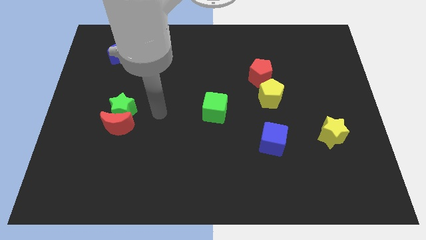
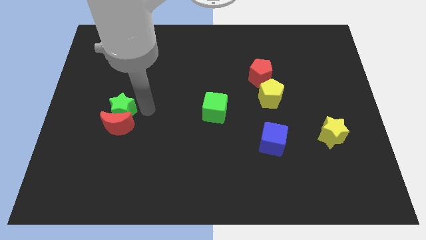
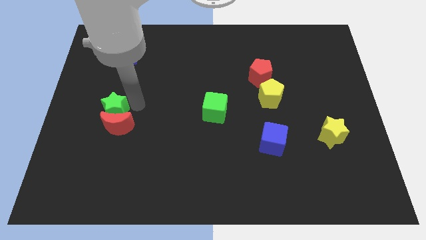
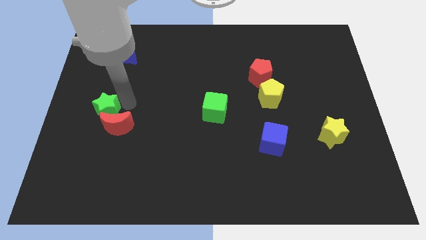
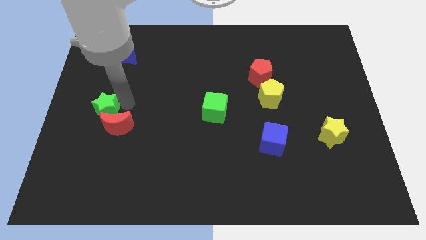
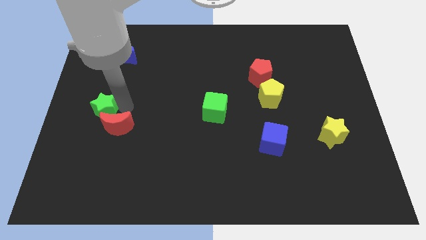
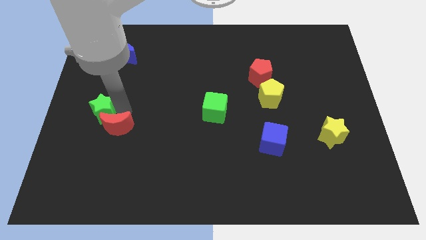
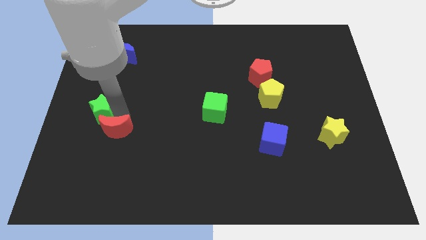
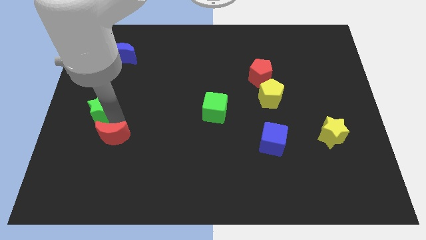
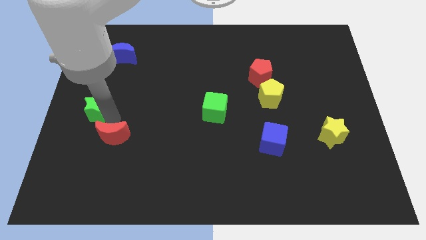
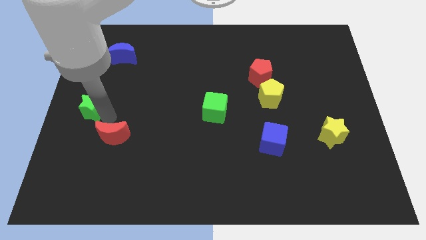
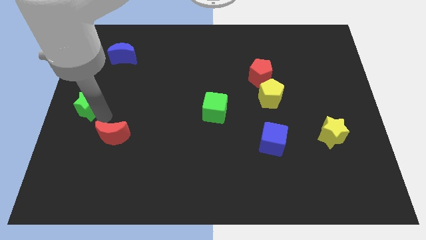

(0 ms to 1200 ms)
move the red moon away from the green star

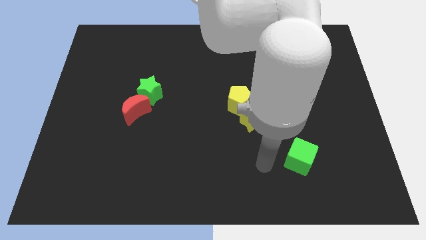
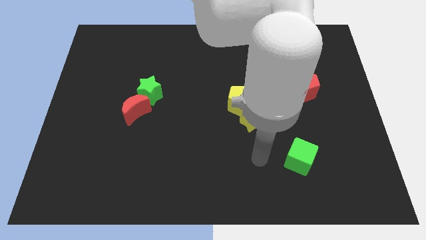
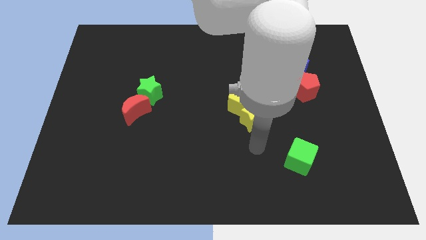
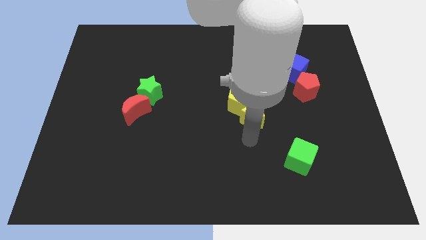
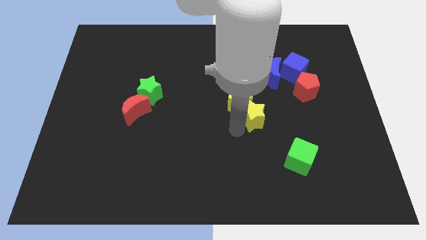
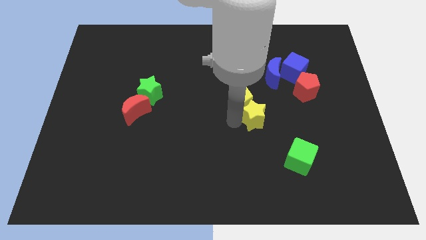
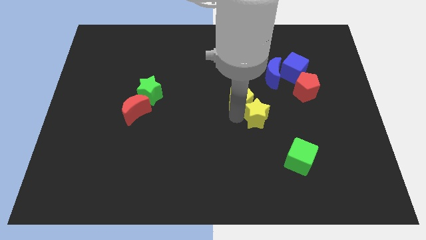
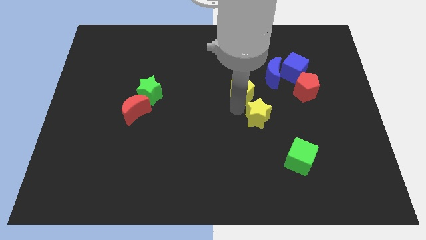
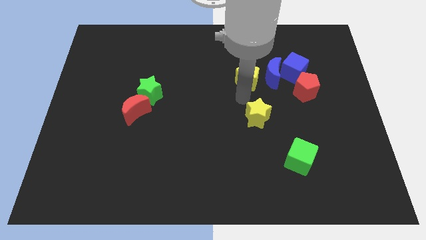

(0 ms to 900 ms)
separate the yellow star from the yellow pentagon

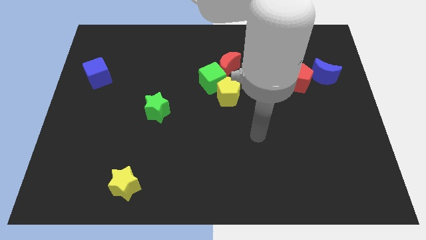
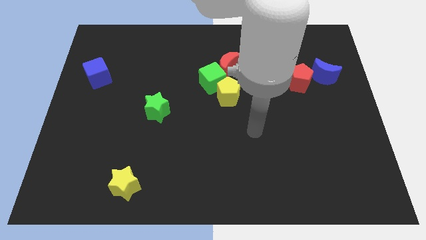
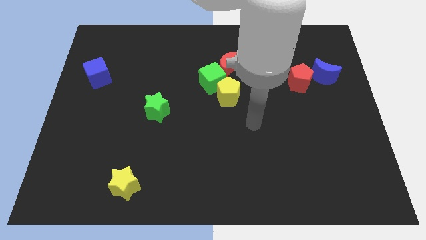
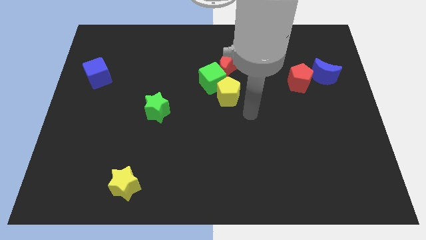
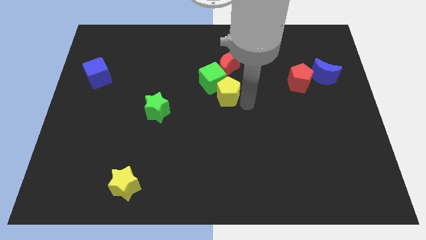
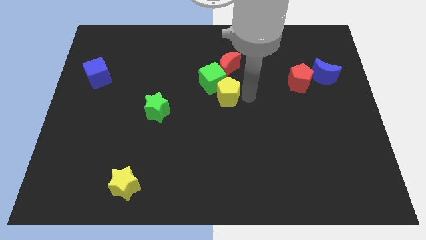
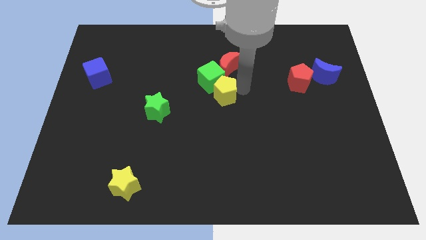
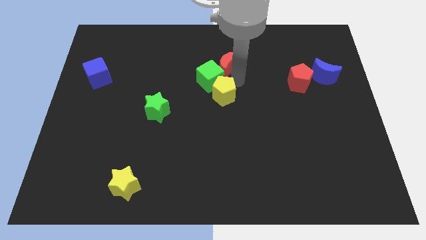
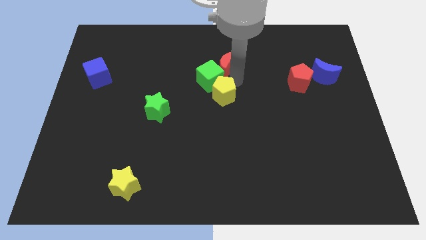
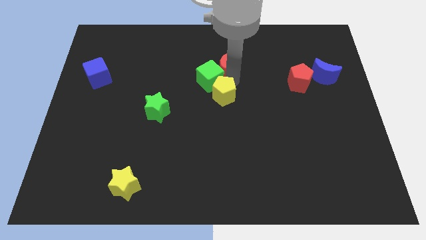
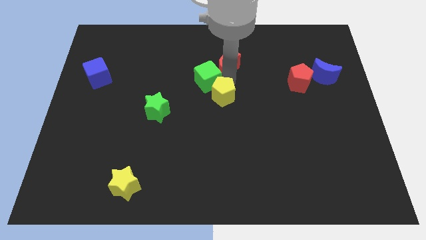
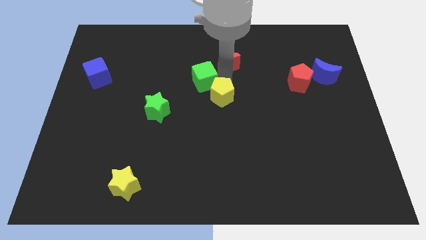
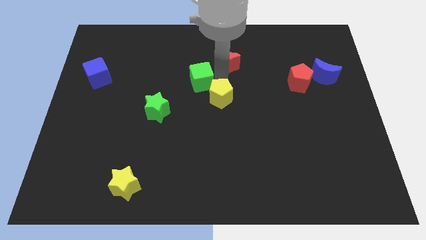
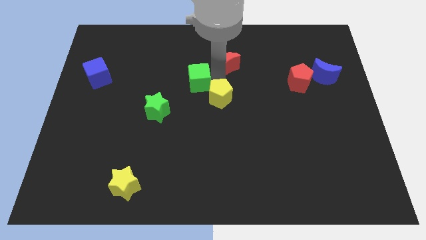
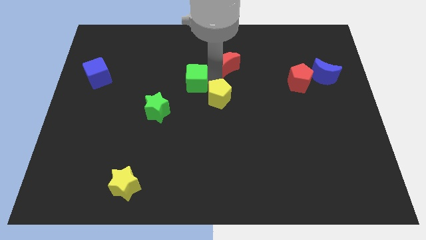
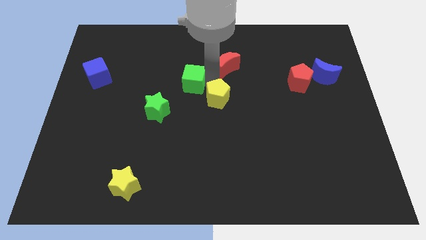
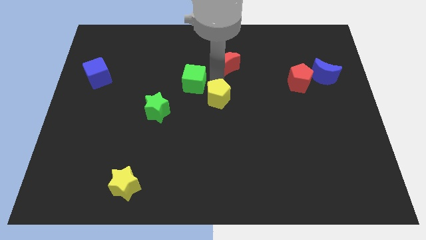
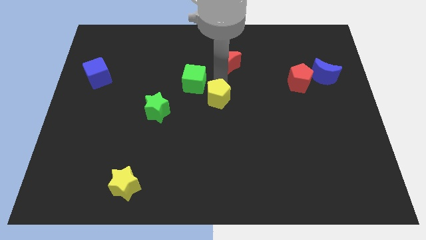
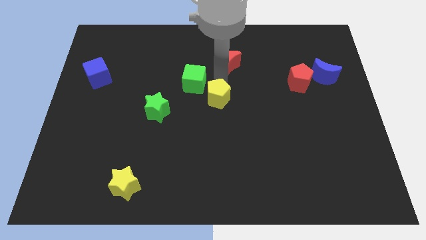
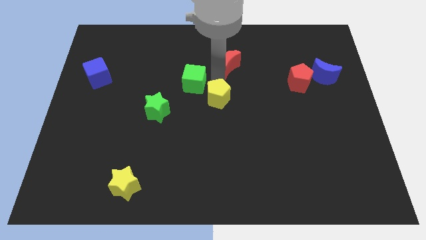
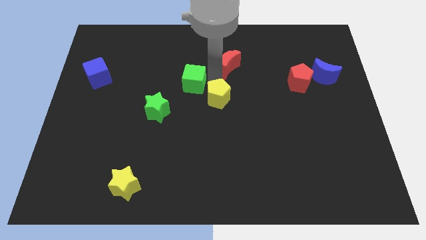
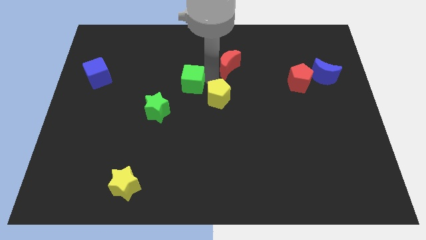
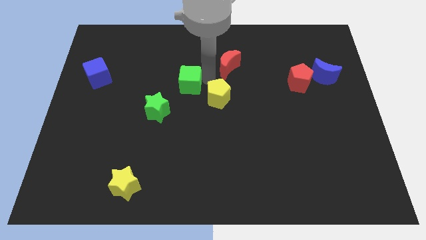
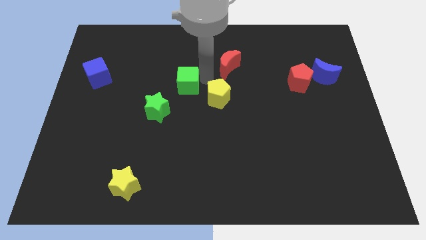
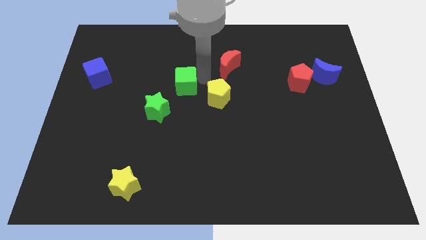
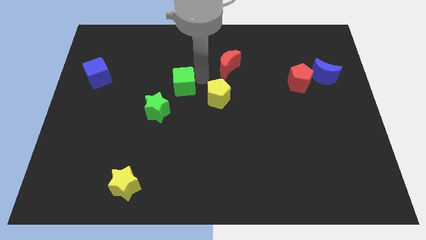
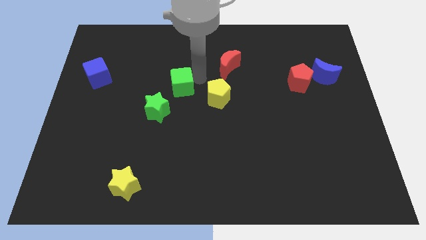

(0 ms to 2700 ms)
pull the green cube apart from the yellow pentagon and red moon

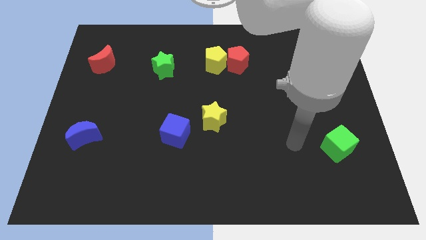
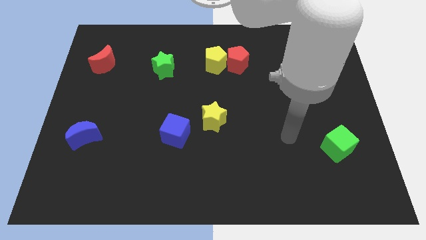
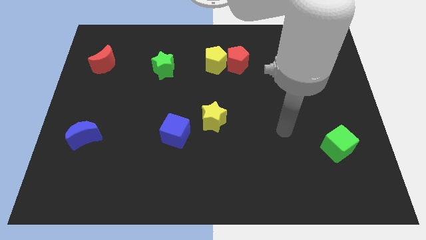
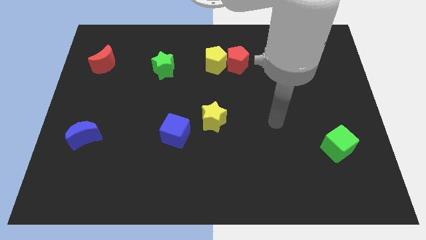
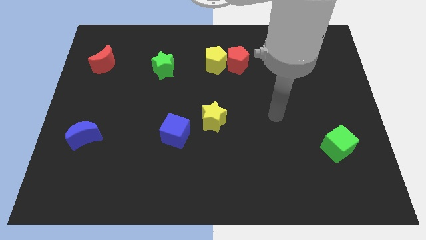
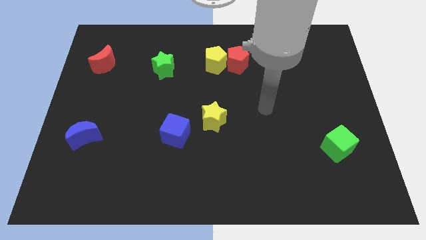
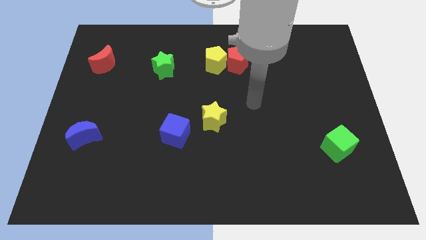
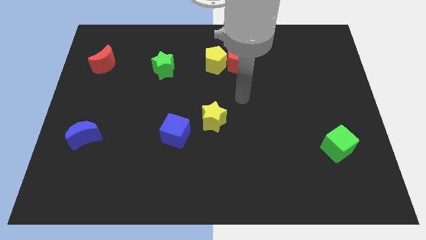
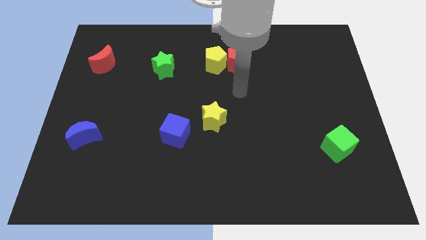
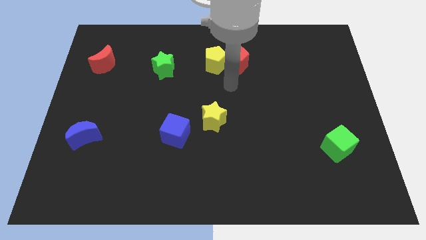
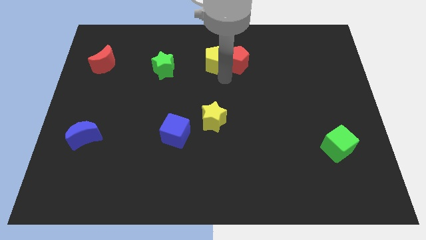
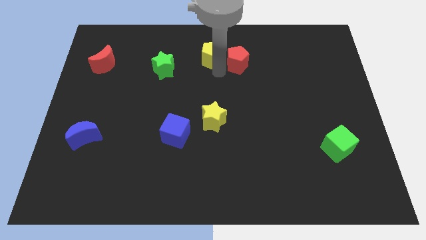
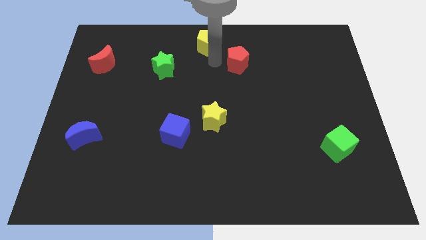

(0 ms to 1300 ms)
separate the red pentagon from the yellow pentagon

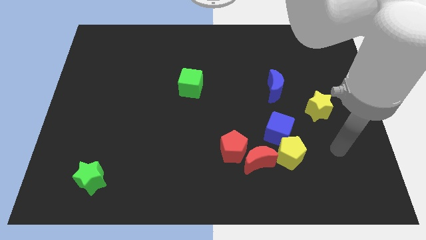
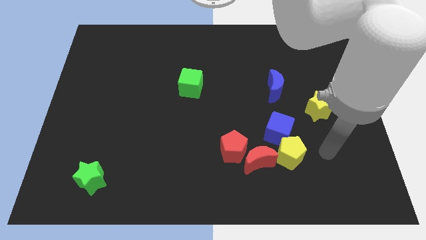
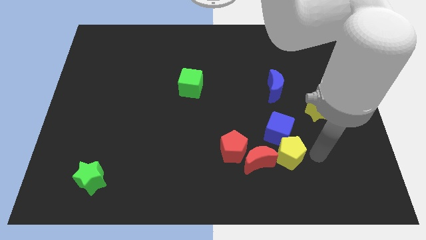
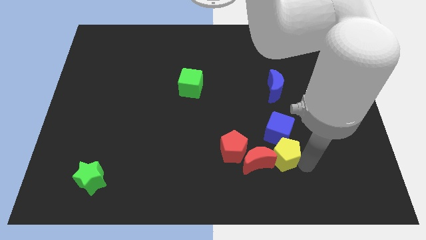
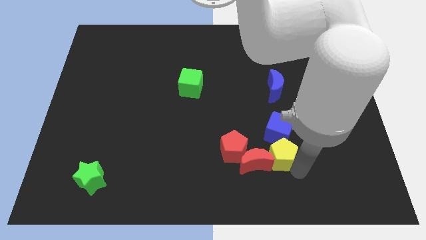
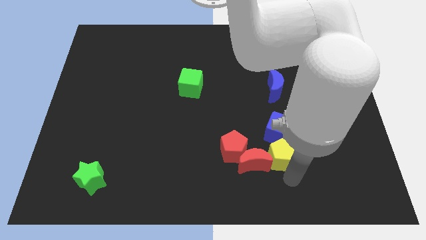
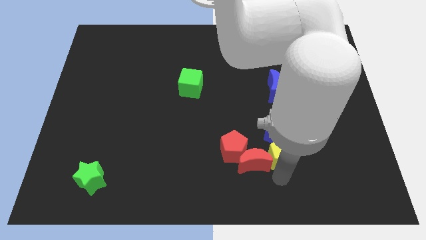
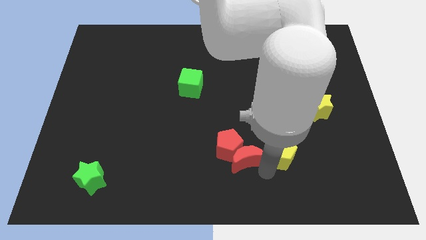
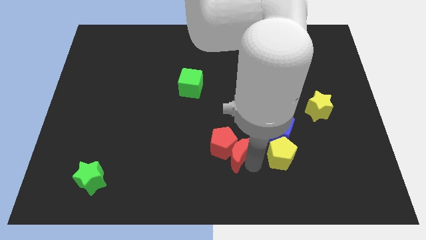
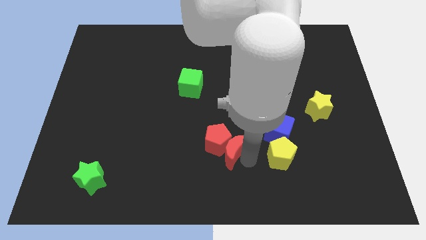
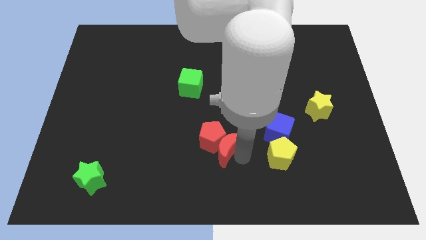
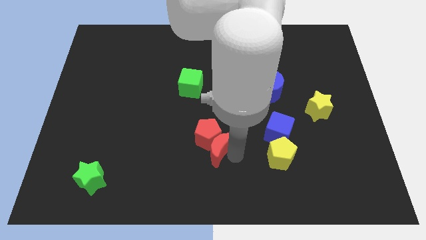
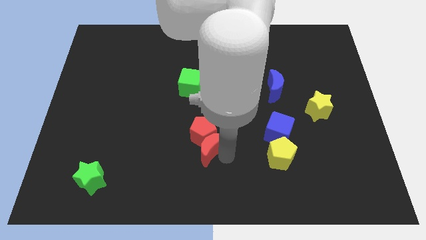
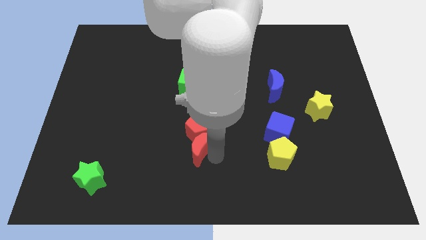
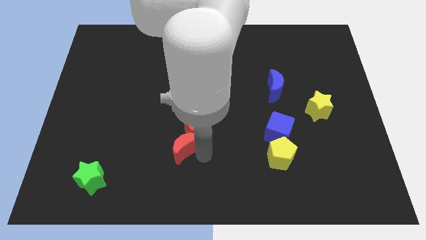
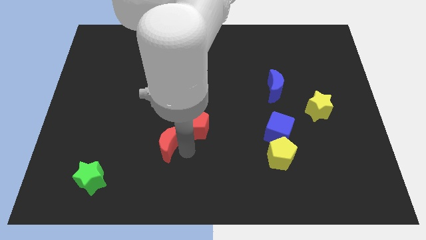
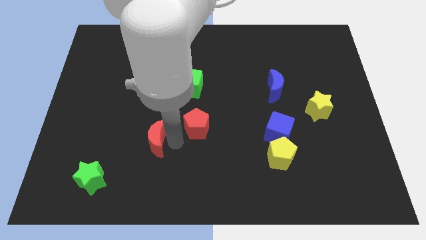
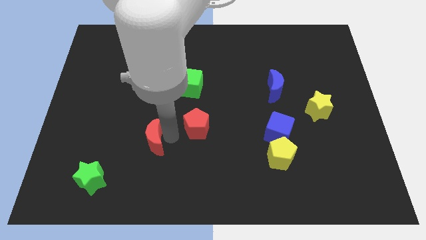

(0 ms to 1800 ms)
separate the red pentagon from the red moon

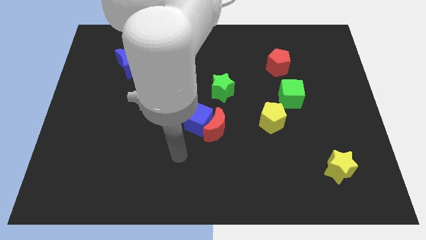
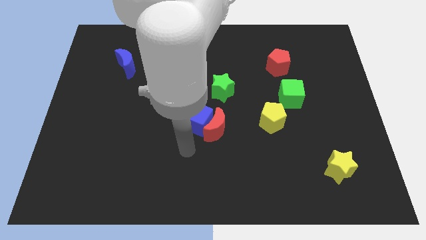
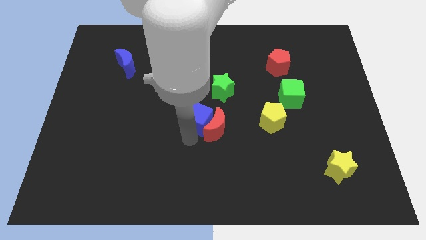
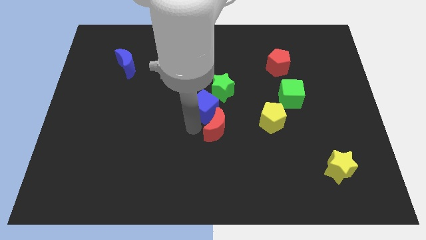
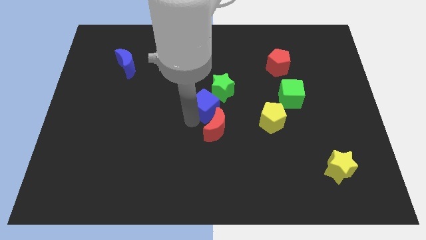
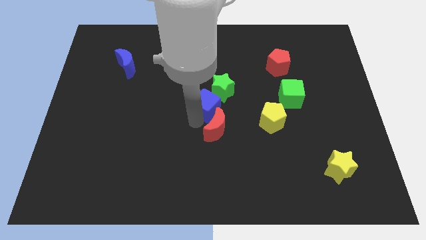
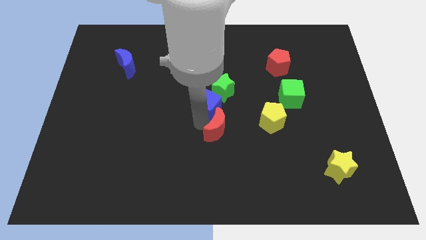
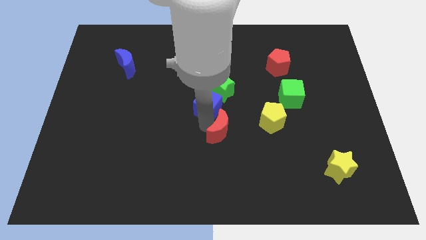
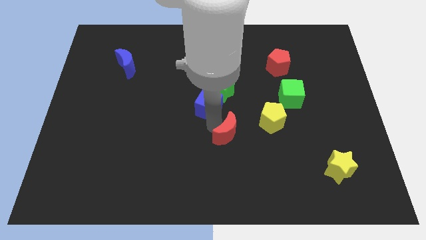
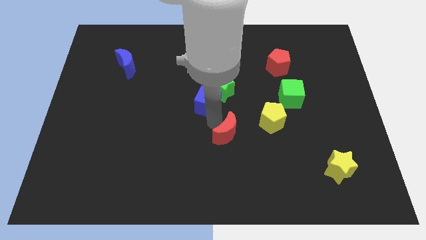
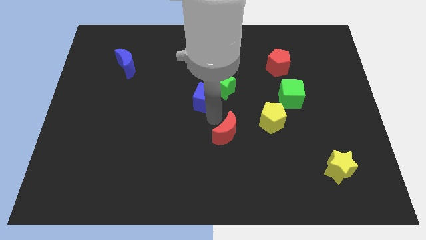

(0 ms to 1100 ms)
pull the red moon apart from the blue cube

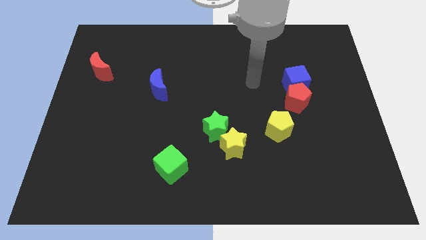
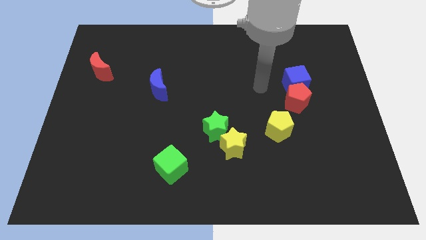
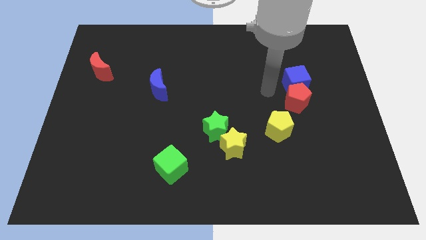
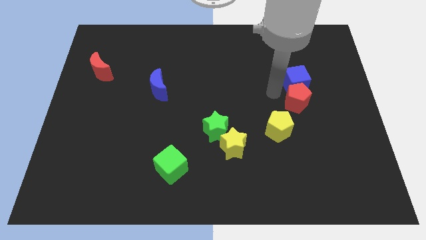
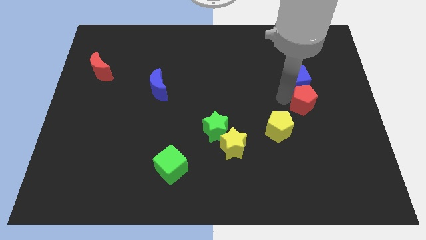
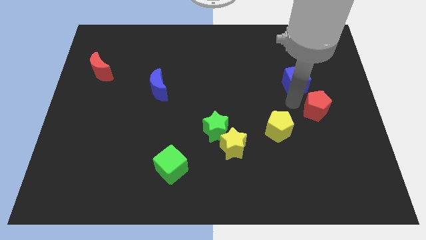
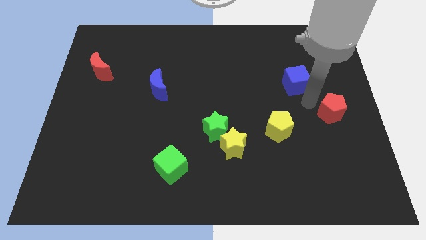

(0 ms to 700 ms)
separate the blue cube from the red pentagon
